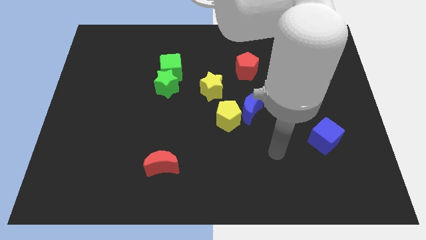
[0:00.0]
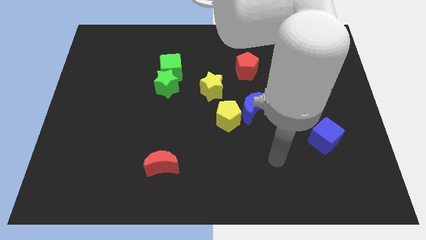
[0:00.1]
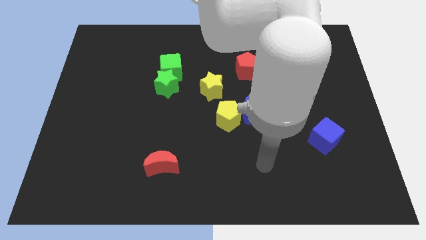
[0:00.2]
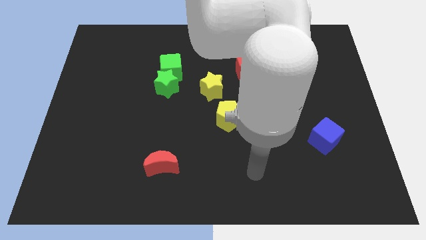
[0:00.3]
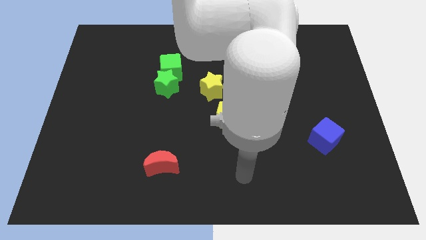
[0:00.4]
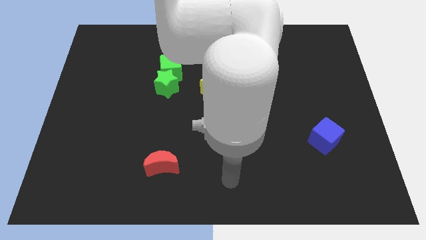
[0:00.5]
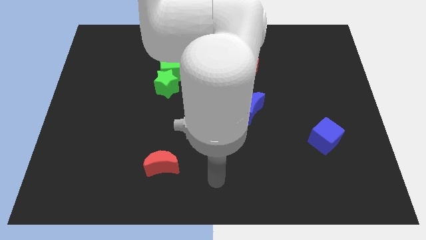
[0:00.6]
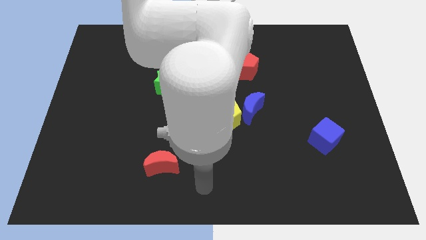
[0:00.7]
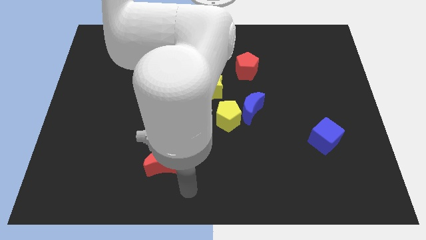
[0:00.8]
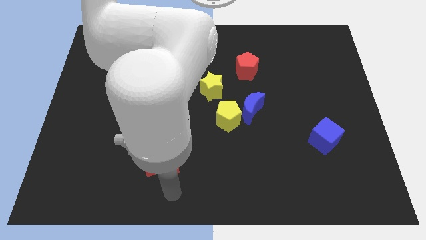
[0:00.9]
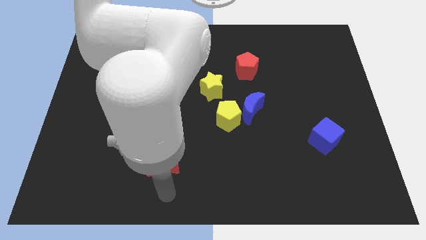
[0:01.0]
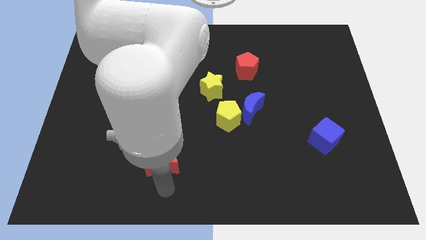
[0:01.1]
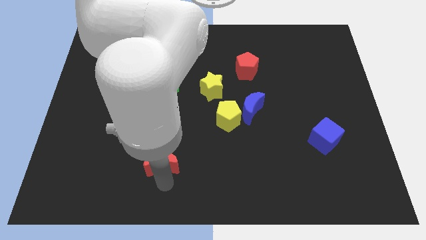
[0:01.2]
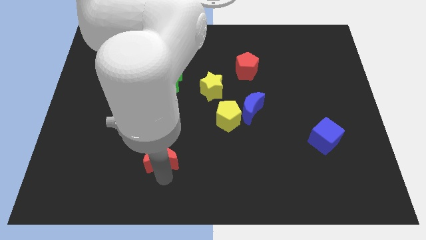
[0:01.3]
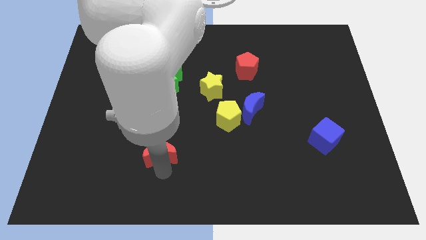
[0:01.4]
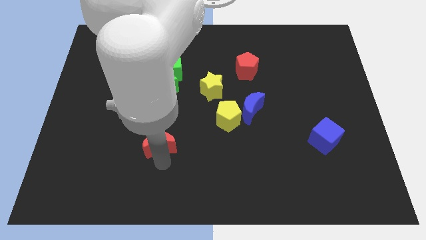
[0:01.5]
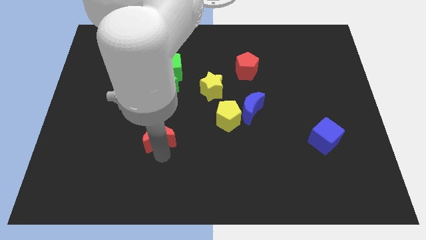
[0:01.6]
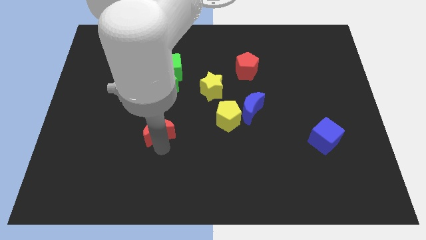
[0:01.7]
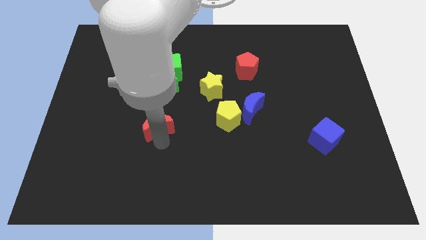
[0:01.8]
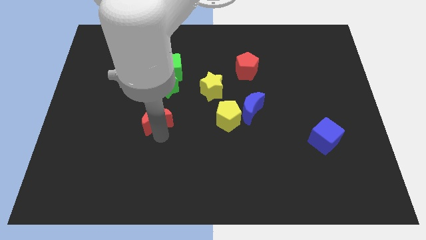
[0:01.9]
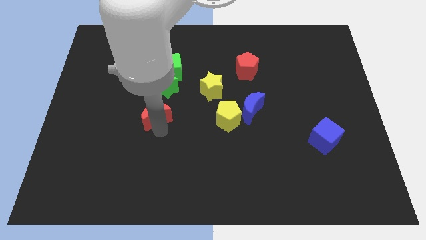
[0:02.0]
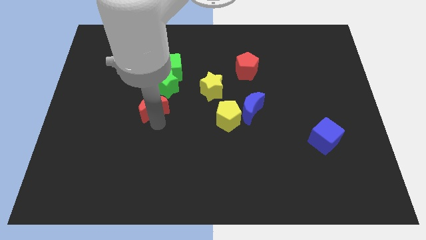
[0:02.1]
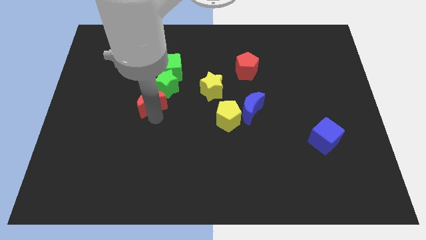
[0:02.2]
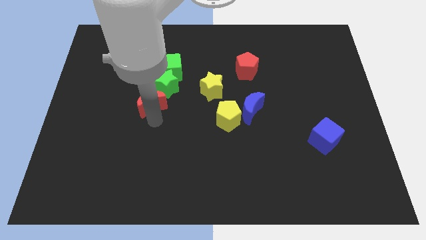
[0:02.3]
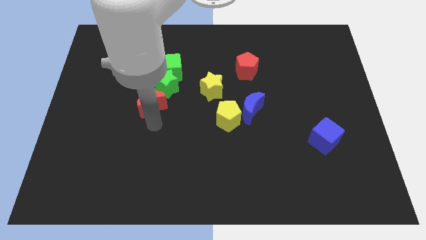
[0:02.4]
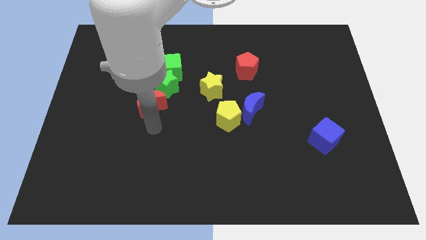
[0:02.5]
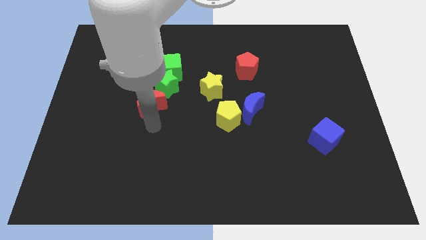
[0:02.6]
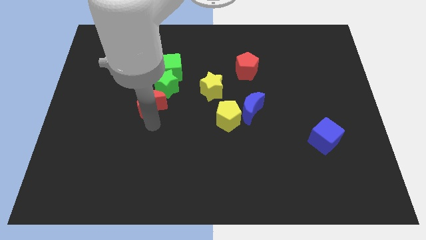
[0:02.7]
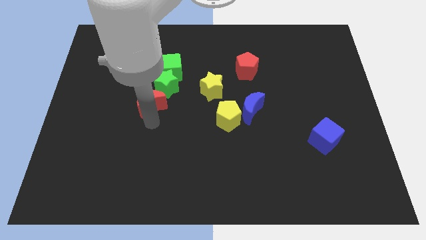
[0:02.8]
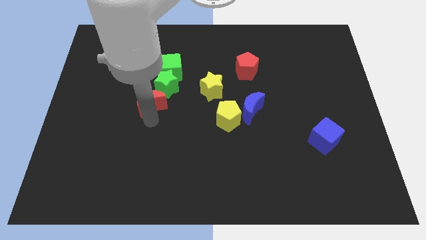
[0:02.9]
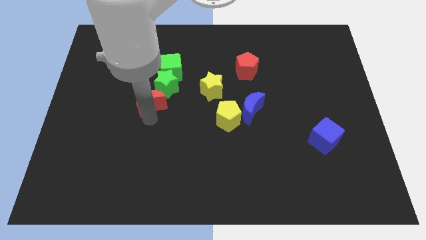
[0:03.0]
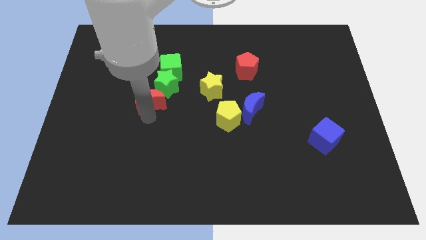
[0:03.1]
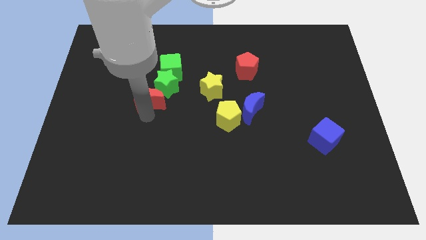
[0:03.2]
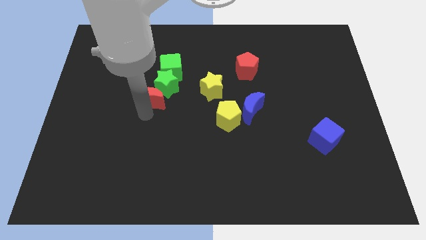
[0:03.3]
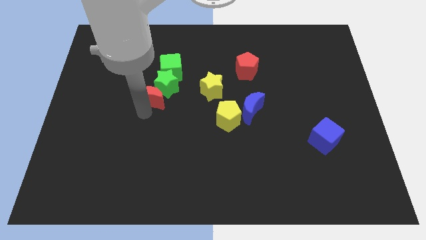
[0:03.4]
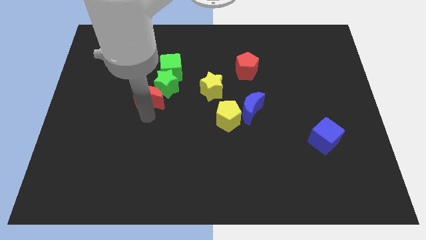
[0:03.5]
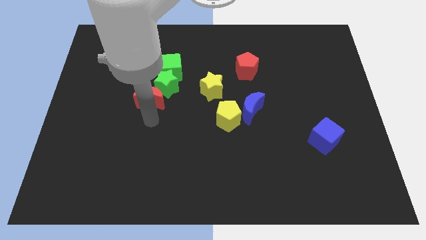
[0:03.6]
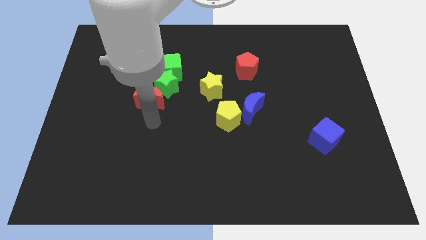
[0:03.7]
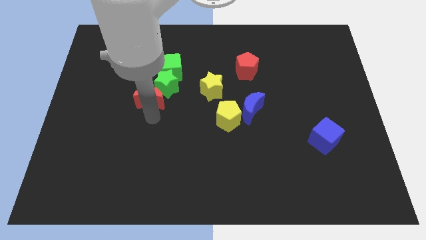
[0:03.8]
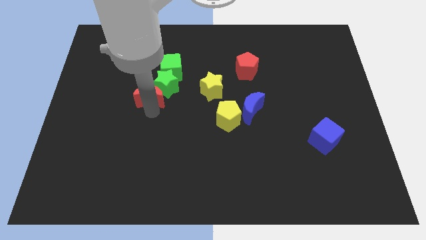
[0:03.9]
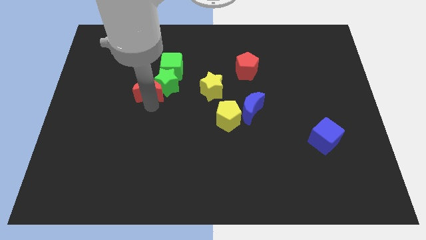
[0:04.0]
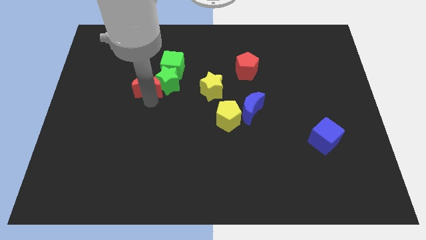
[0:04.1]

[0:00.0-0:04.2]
move the red moon upwards

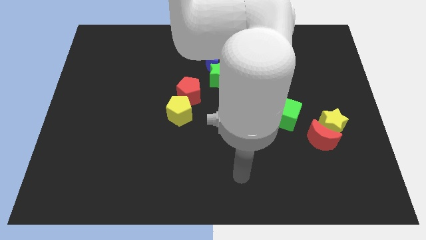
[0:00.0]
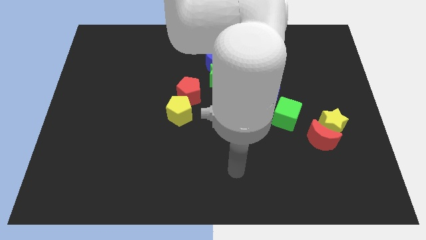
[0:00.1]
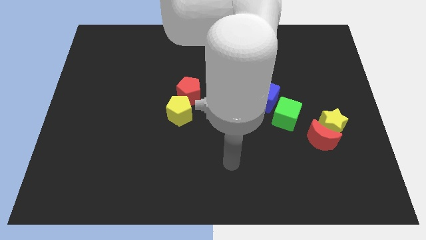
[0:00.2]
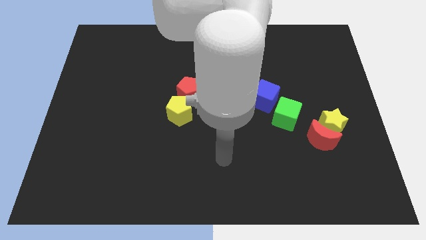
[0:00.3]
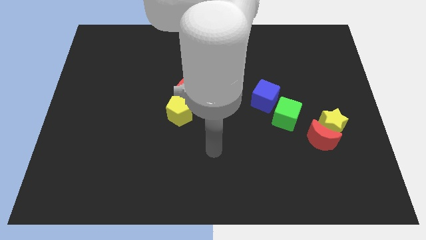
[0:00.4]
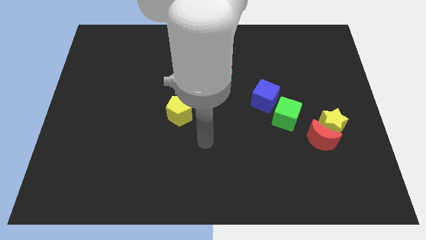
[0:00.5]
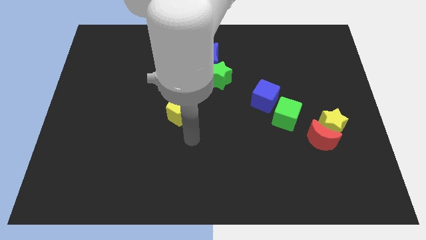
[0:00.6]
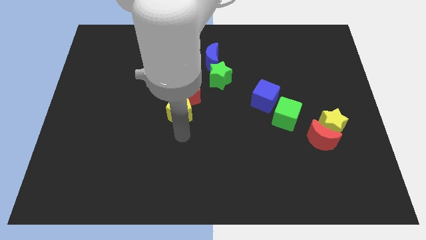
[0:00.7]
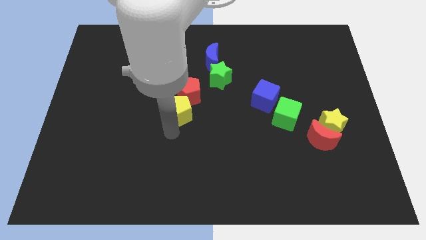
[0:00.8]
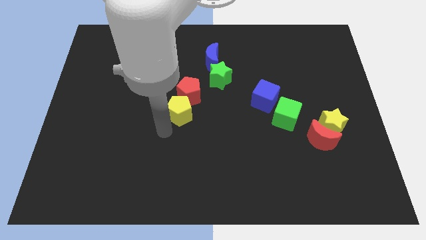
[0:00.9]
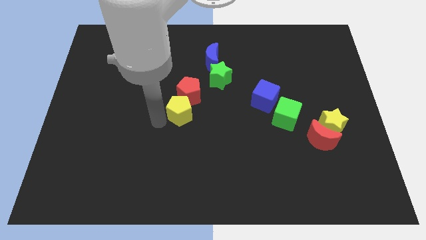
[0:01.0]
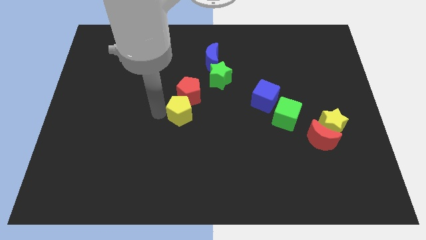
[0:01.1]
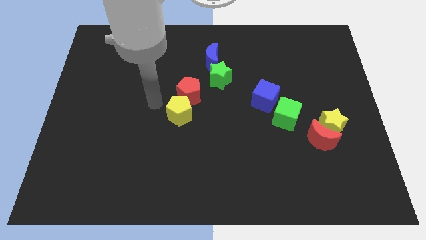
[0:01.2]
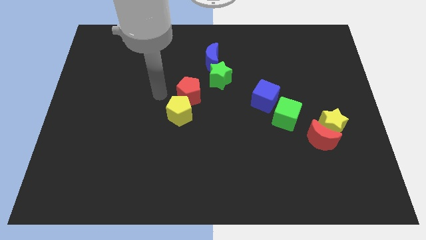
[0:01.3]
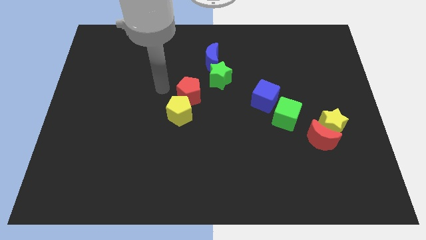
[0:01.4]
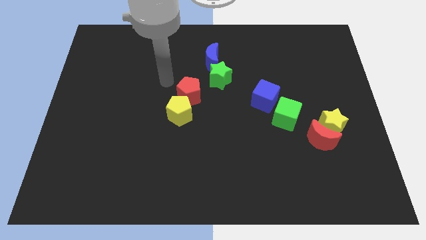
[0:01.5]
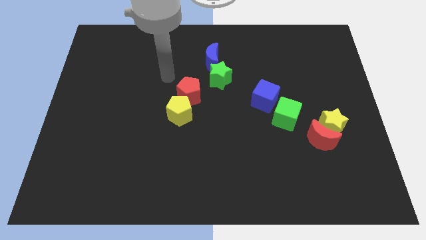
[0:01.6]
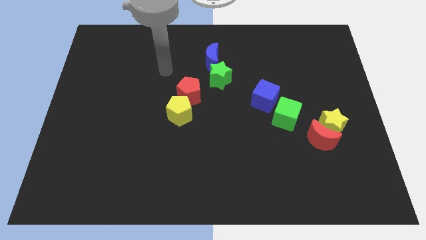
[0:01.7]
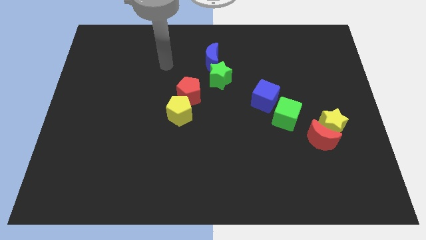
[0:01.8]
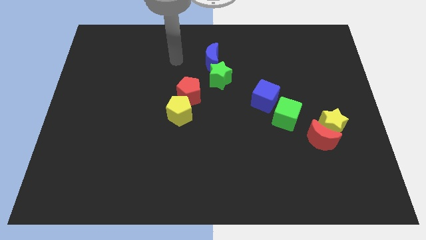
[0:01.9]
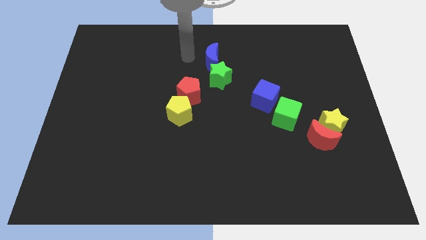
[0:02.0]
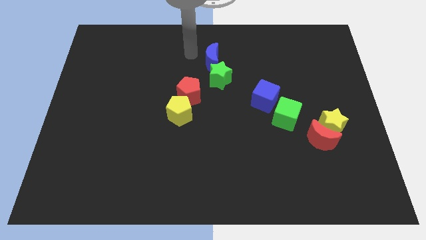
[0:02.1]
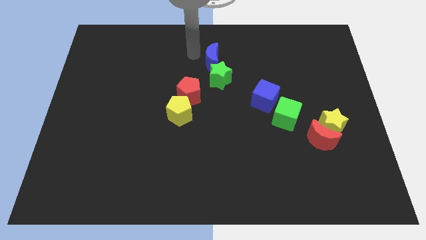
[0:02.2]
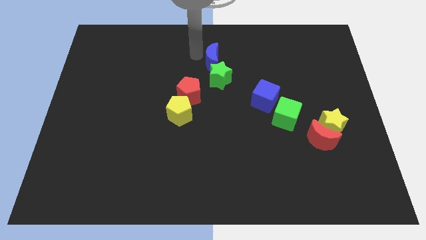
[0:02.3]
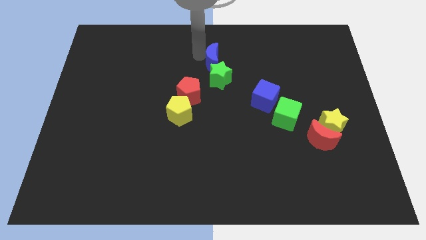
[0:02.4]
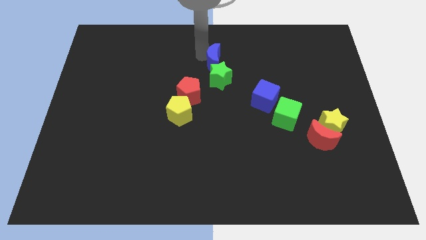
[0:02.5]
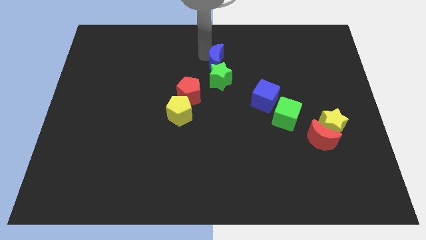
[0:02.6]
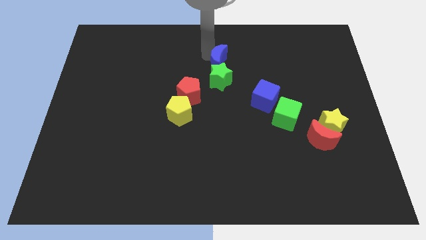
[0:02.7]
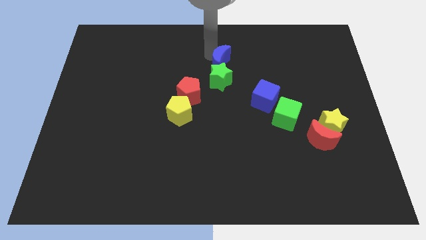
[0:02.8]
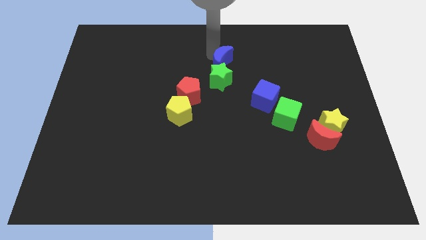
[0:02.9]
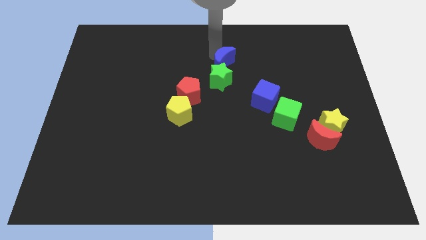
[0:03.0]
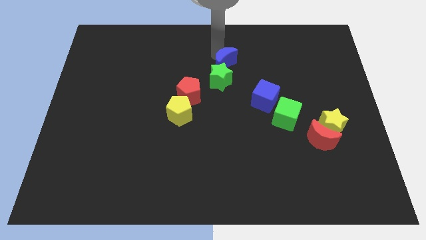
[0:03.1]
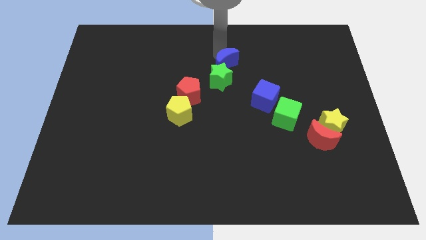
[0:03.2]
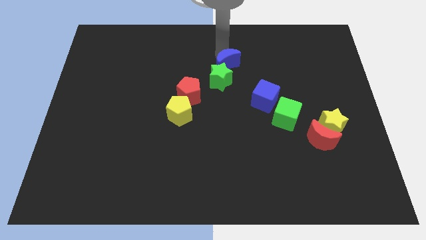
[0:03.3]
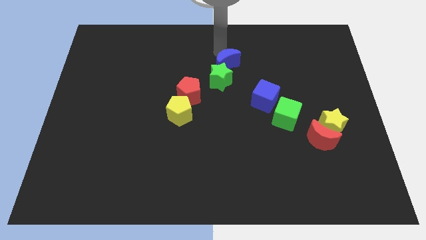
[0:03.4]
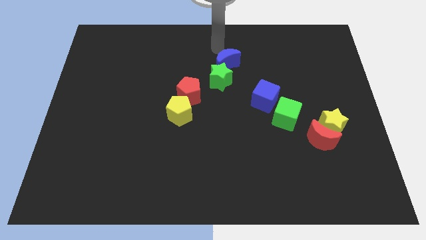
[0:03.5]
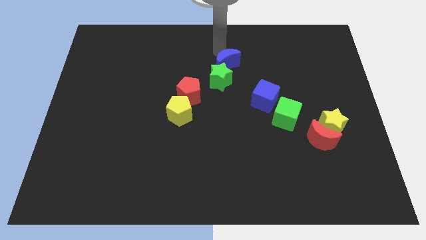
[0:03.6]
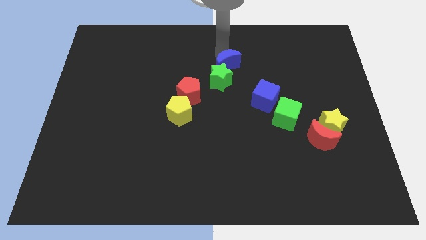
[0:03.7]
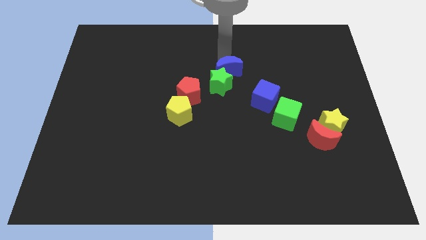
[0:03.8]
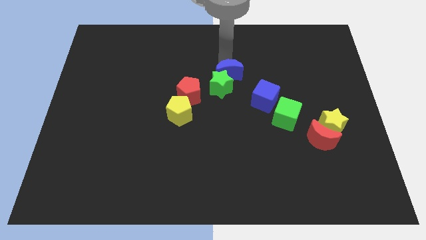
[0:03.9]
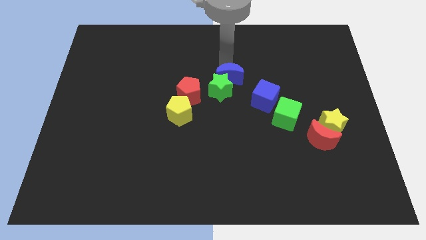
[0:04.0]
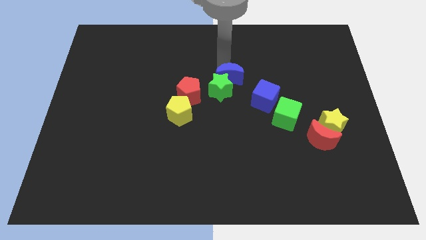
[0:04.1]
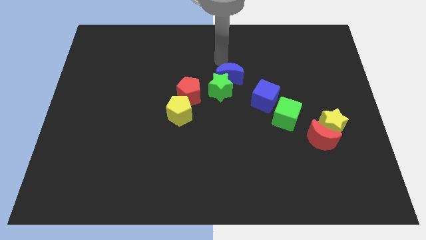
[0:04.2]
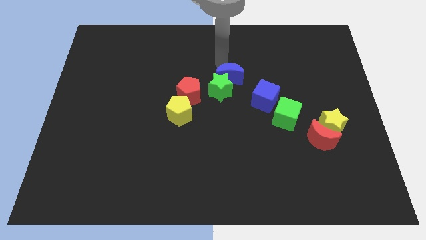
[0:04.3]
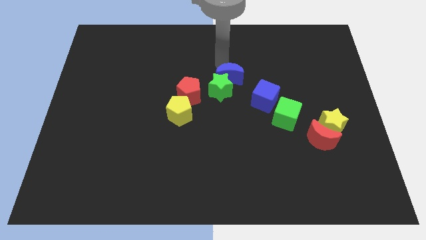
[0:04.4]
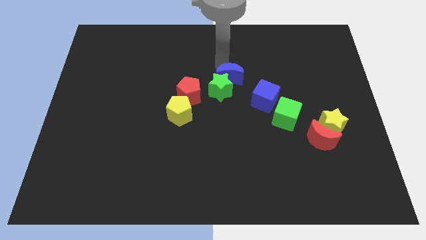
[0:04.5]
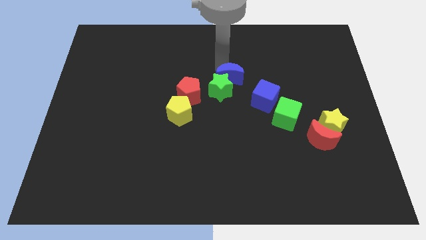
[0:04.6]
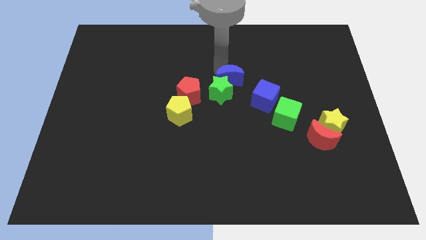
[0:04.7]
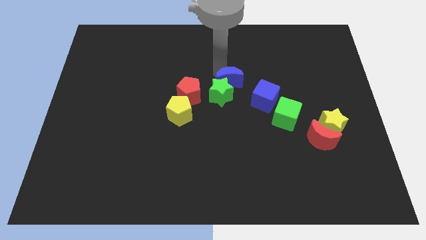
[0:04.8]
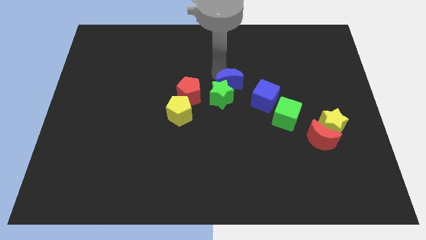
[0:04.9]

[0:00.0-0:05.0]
slightly slide the blue moon downwards
